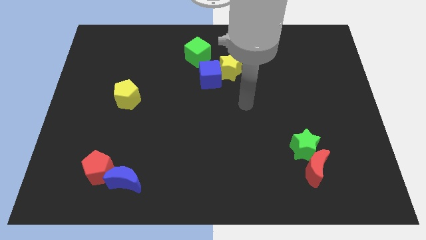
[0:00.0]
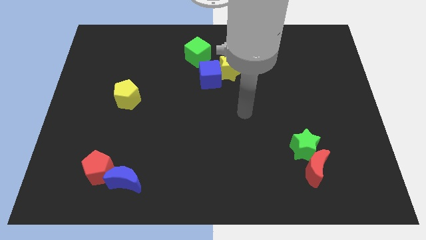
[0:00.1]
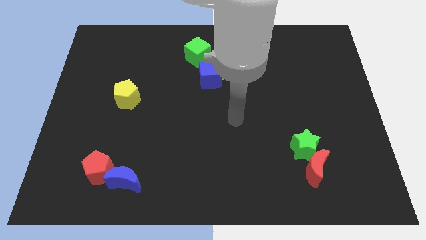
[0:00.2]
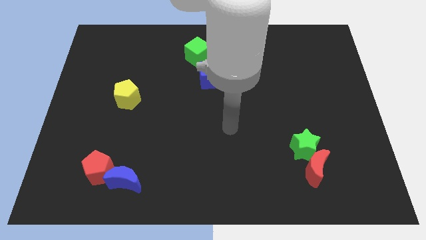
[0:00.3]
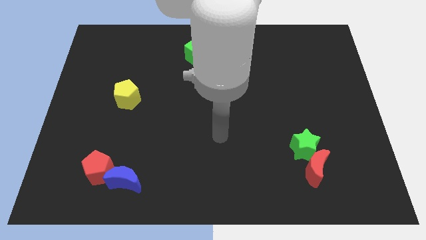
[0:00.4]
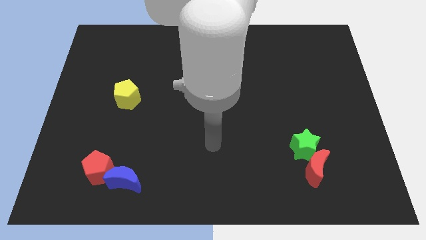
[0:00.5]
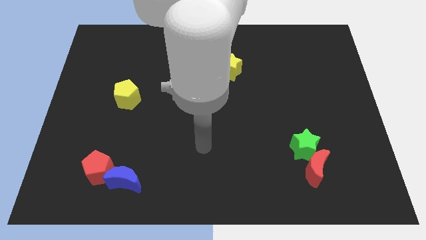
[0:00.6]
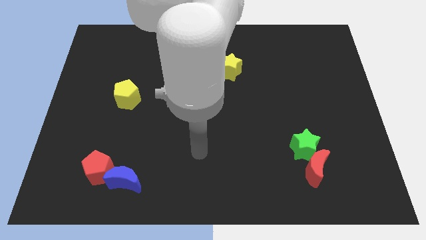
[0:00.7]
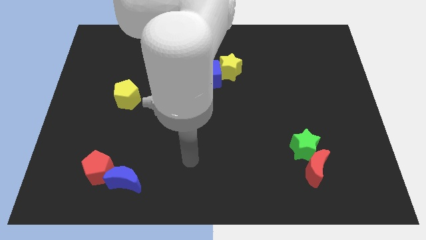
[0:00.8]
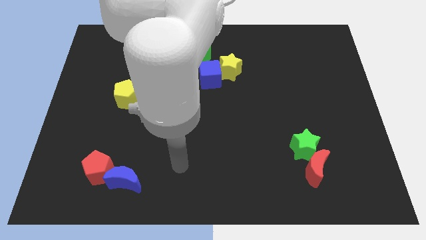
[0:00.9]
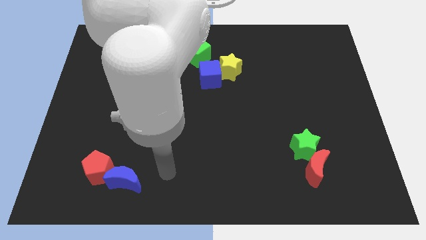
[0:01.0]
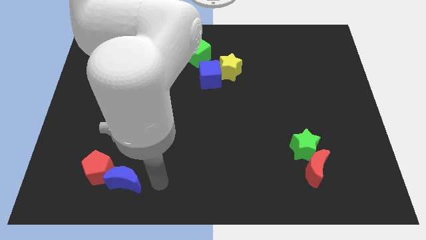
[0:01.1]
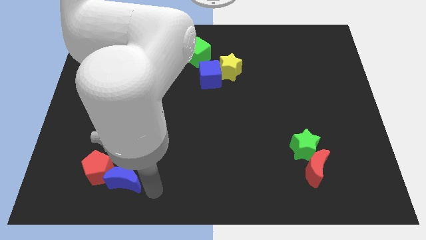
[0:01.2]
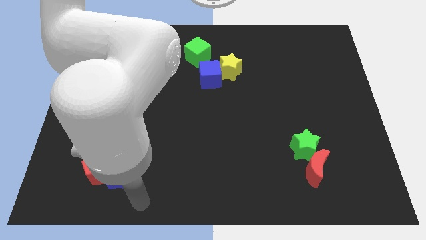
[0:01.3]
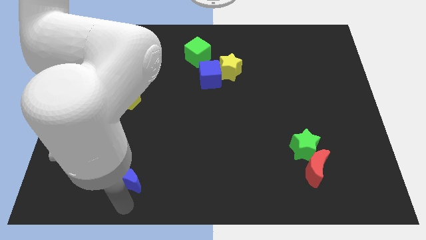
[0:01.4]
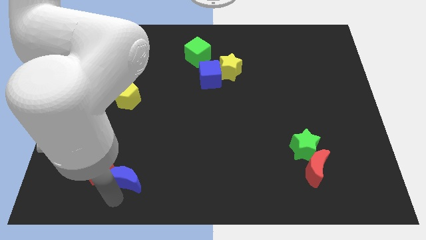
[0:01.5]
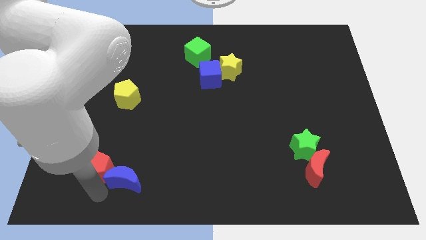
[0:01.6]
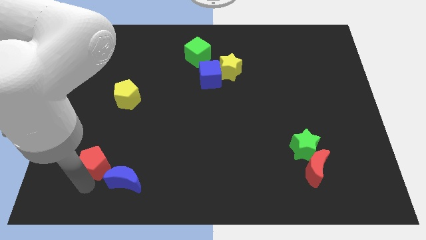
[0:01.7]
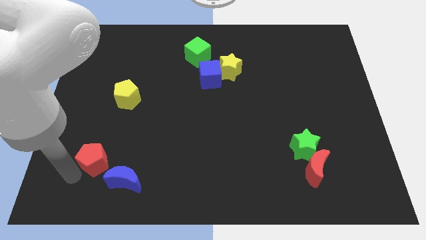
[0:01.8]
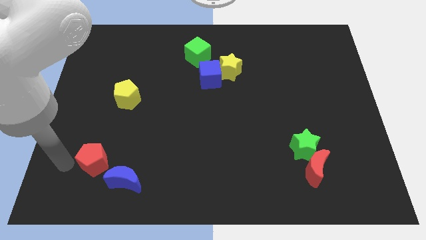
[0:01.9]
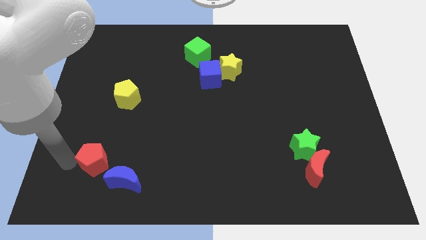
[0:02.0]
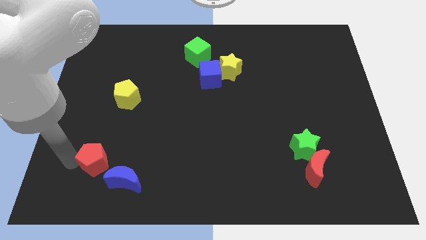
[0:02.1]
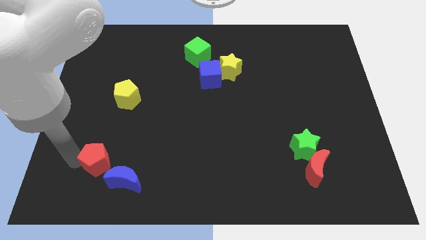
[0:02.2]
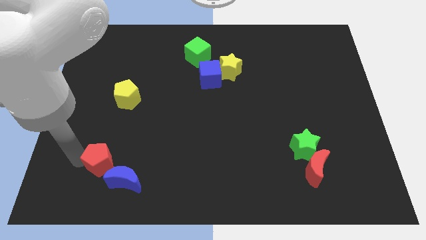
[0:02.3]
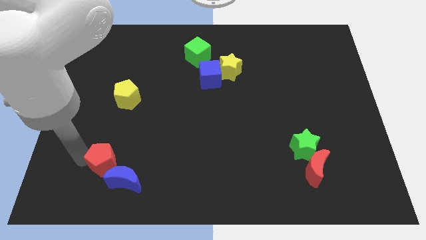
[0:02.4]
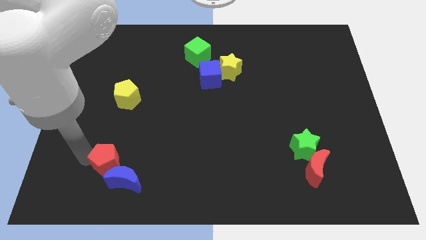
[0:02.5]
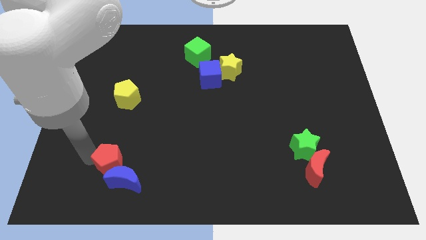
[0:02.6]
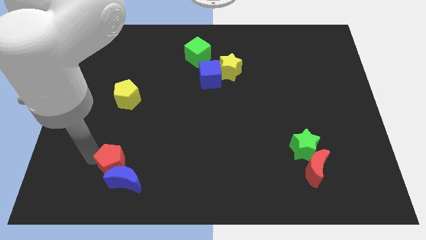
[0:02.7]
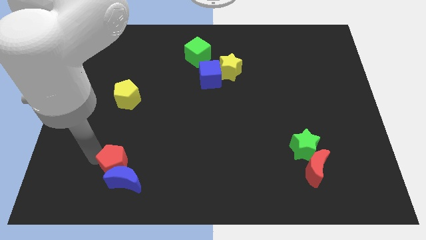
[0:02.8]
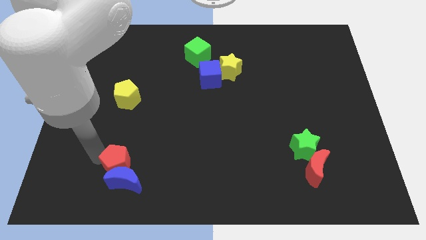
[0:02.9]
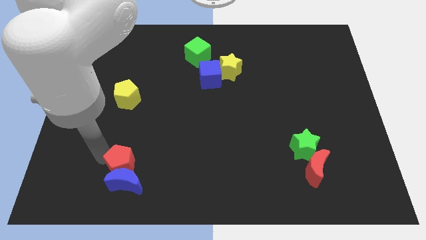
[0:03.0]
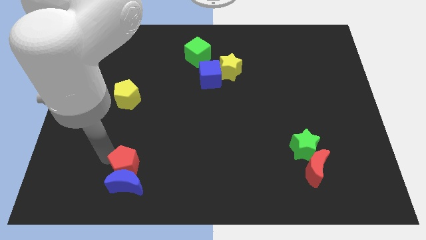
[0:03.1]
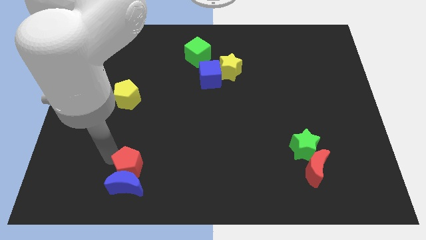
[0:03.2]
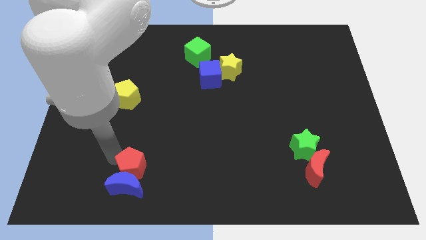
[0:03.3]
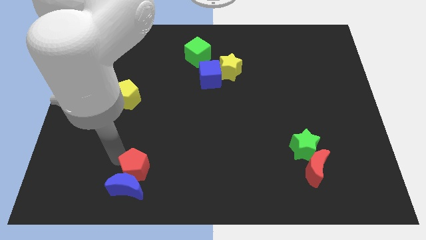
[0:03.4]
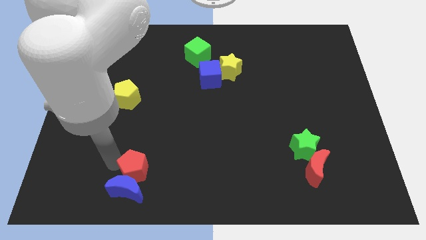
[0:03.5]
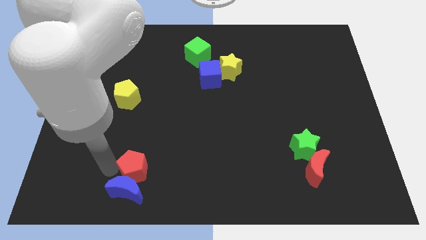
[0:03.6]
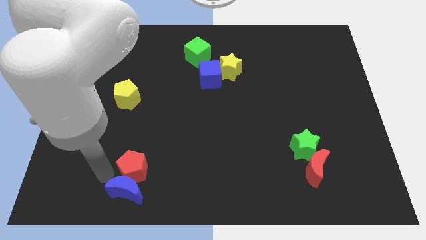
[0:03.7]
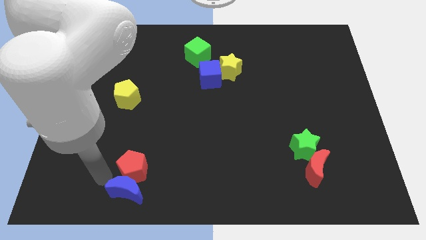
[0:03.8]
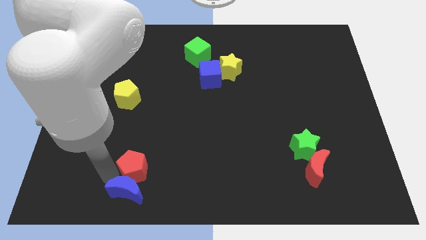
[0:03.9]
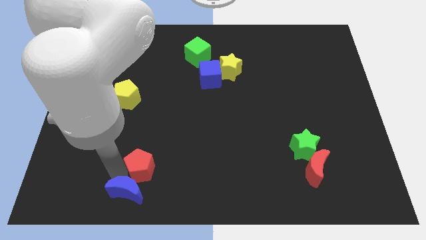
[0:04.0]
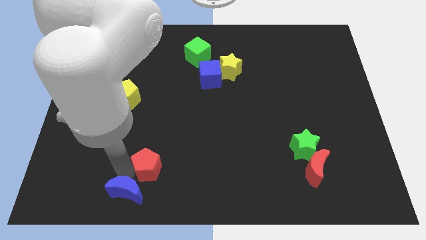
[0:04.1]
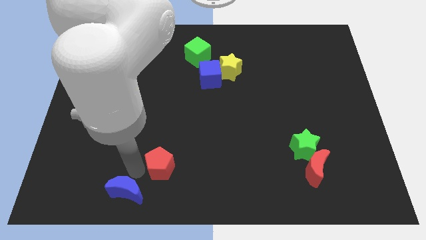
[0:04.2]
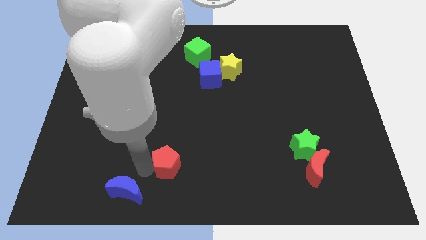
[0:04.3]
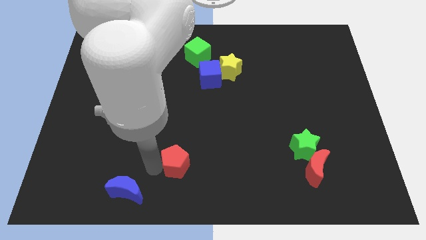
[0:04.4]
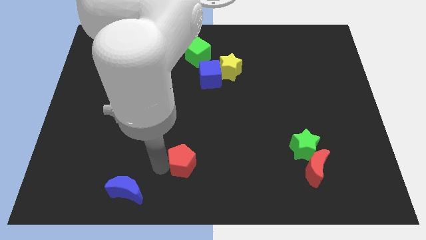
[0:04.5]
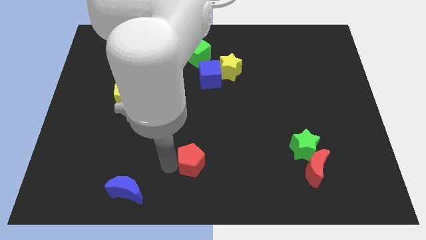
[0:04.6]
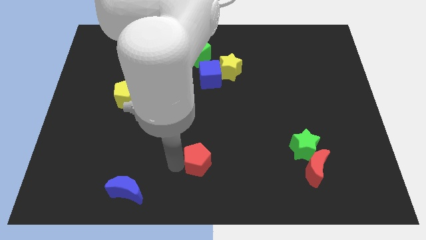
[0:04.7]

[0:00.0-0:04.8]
push the red pentagon to the right

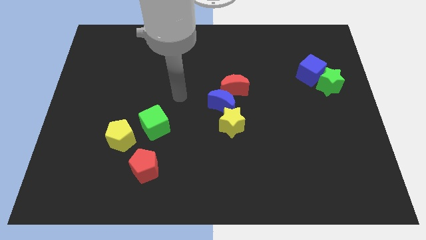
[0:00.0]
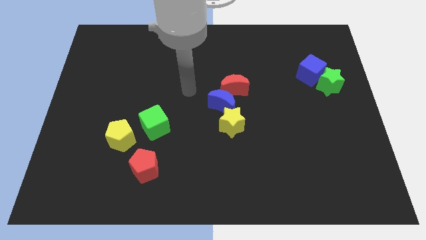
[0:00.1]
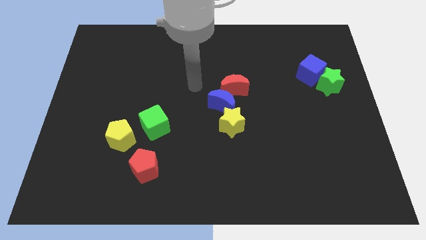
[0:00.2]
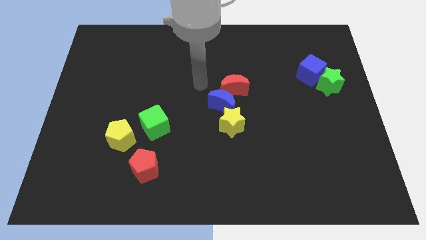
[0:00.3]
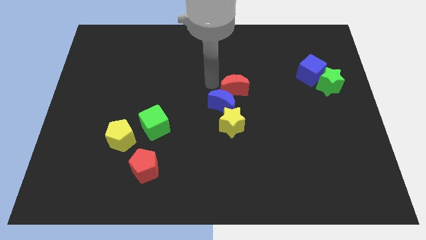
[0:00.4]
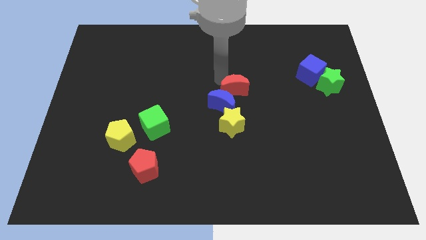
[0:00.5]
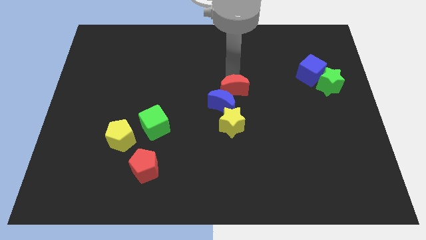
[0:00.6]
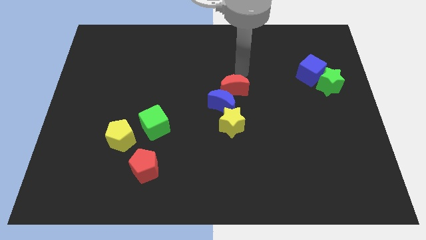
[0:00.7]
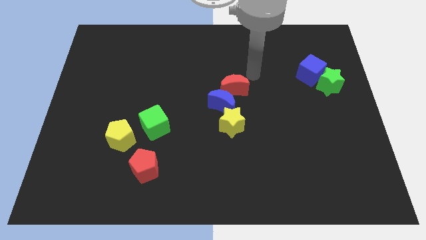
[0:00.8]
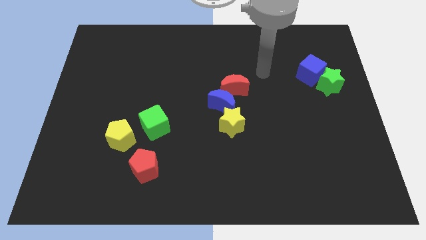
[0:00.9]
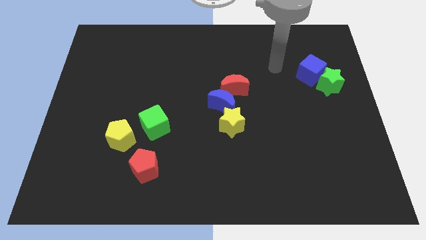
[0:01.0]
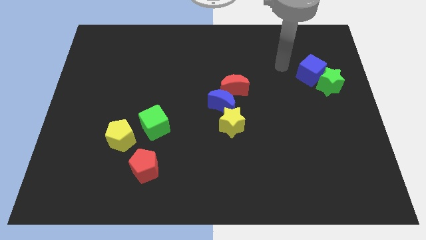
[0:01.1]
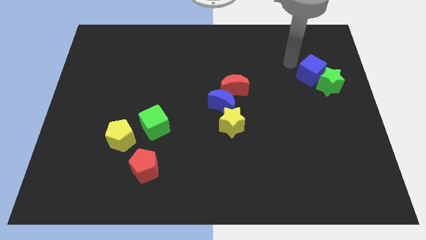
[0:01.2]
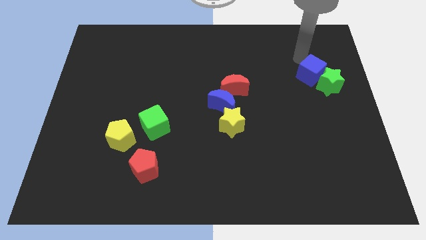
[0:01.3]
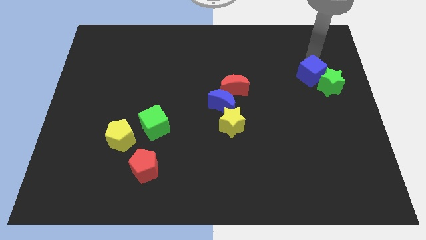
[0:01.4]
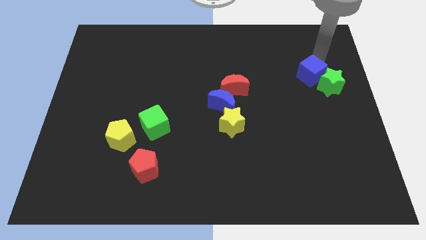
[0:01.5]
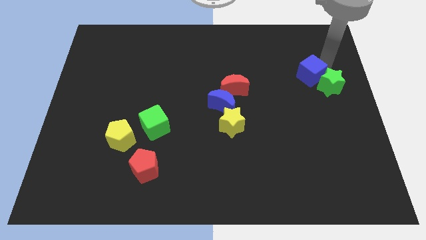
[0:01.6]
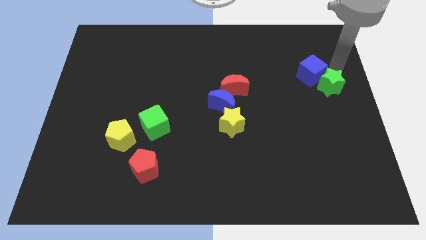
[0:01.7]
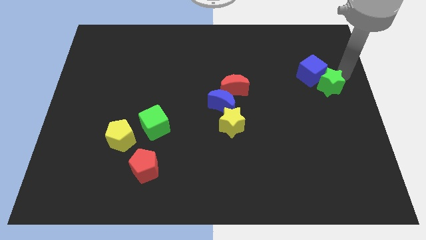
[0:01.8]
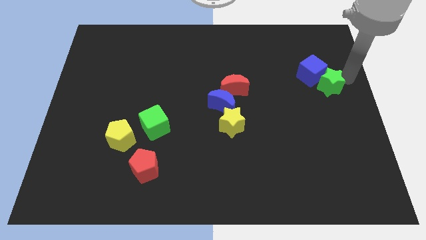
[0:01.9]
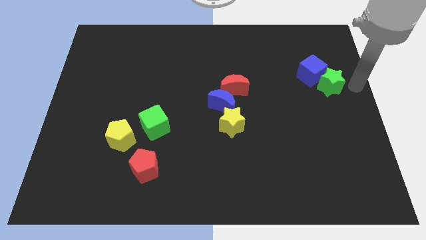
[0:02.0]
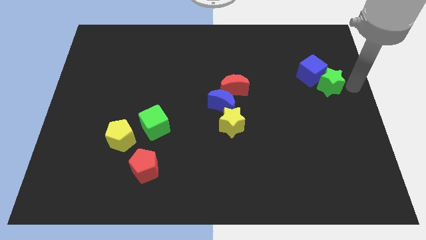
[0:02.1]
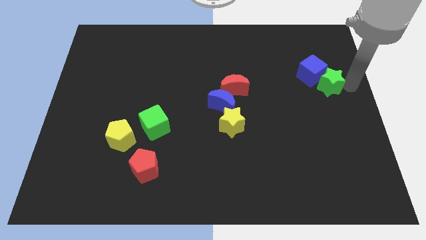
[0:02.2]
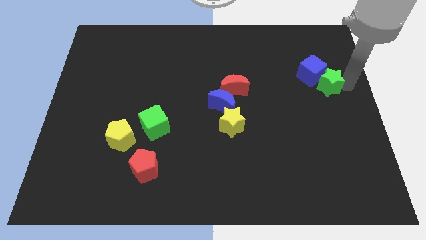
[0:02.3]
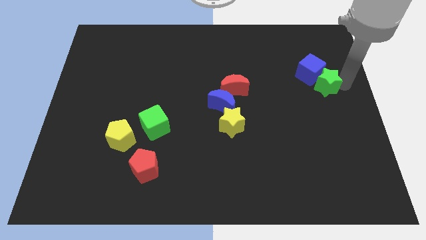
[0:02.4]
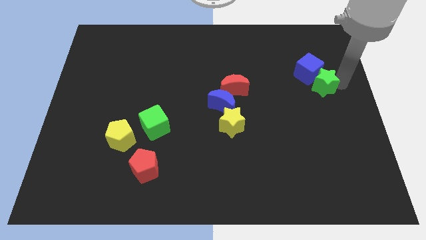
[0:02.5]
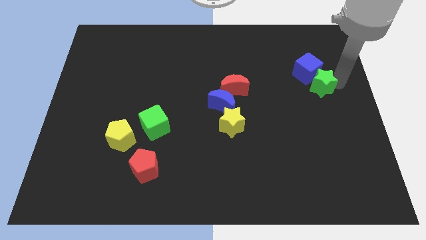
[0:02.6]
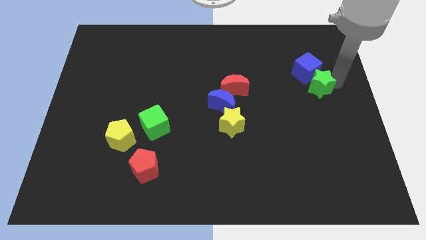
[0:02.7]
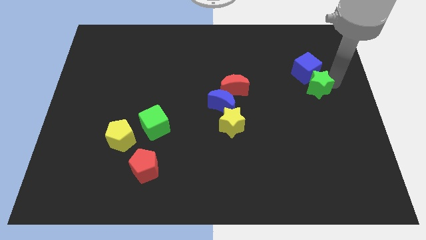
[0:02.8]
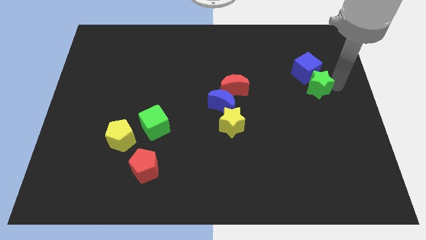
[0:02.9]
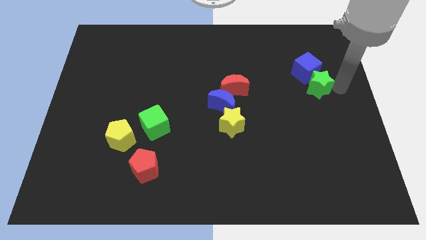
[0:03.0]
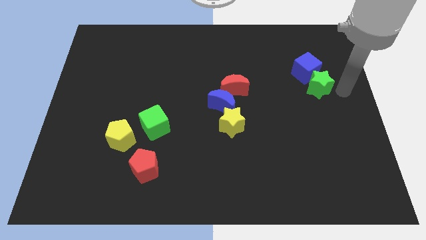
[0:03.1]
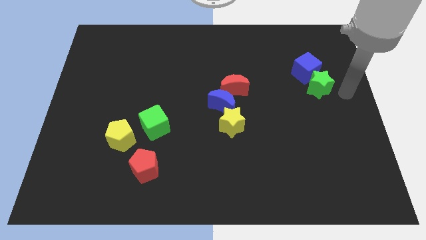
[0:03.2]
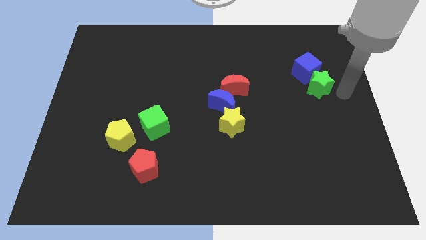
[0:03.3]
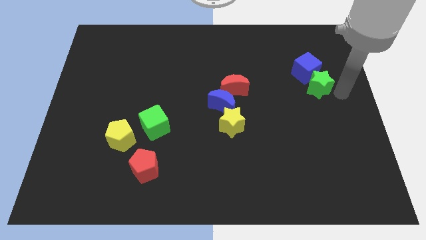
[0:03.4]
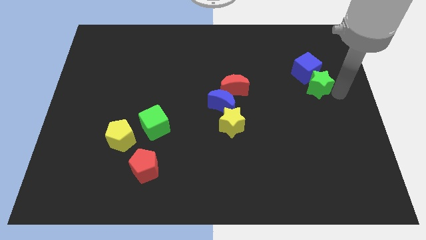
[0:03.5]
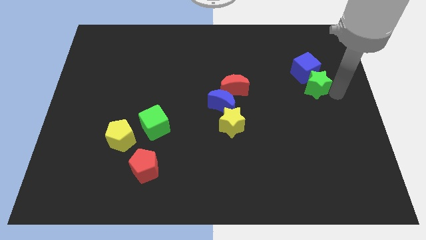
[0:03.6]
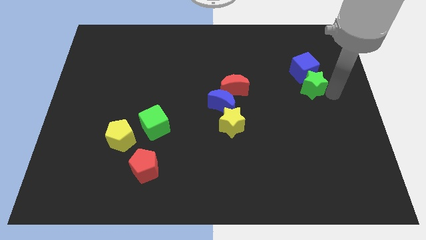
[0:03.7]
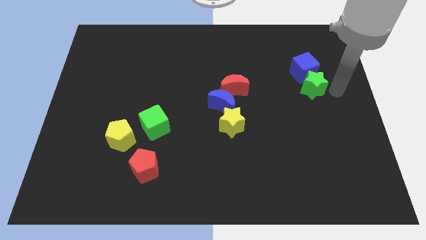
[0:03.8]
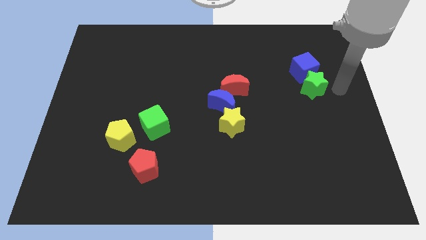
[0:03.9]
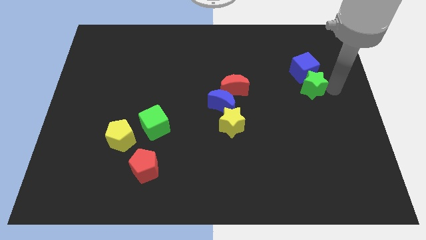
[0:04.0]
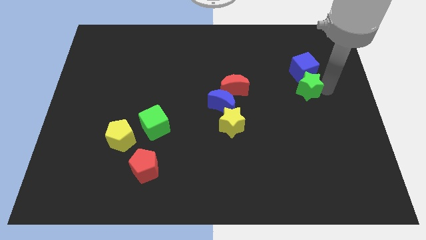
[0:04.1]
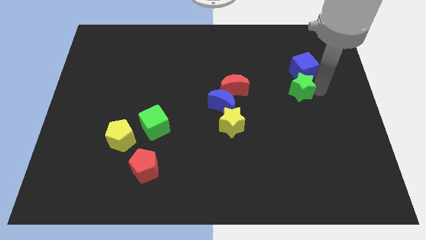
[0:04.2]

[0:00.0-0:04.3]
move the green star to the left somewhat
